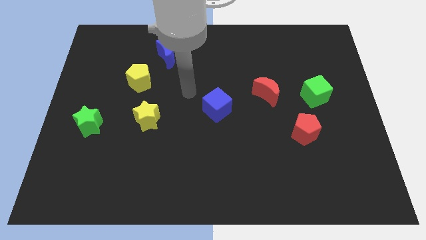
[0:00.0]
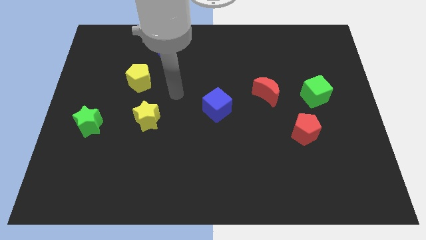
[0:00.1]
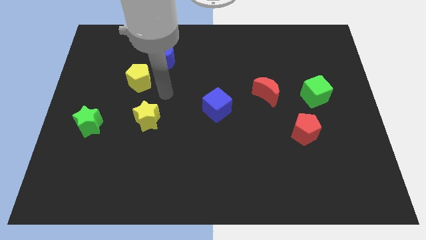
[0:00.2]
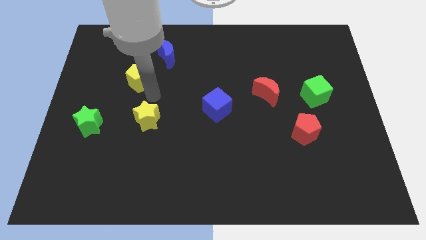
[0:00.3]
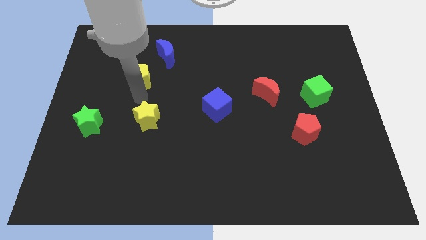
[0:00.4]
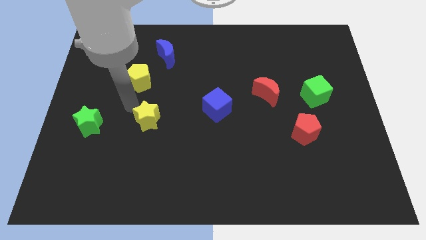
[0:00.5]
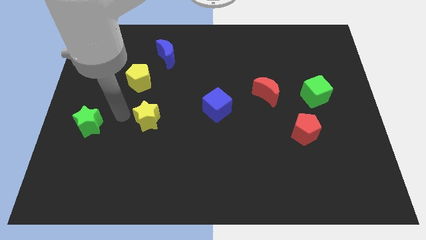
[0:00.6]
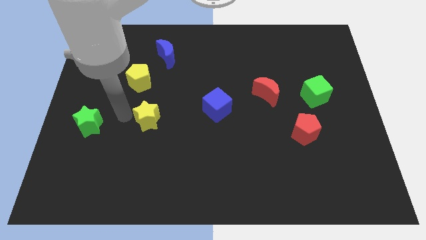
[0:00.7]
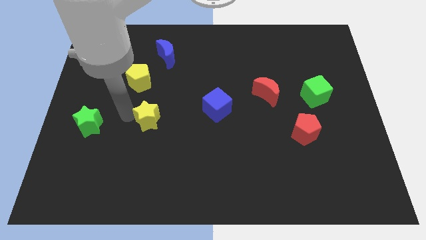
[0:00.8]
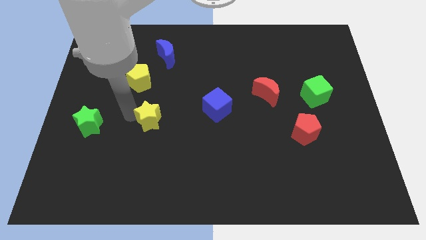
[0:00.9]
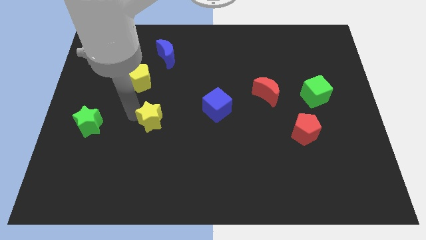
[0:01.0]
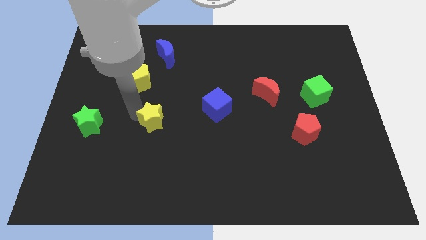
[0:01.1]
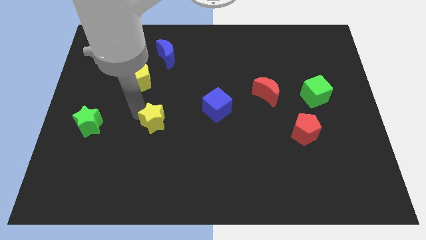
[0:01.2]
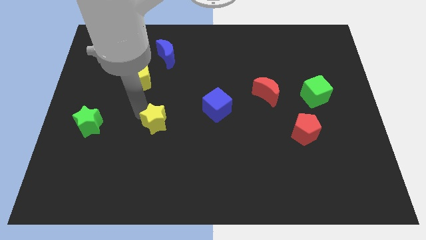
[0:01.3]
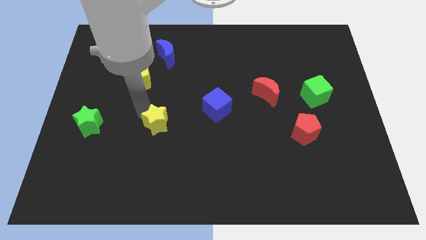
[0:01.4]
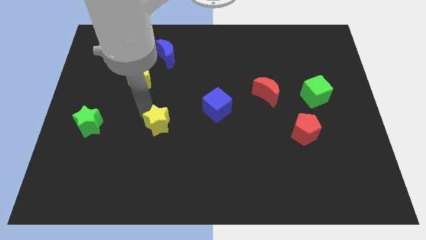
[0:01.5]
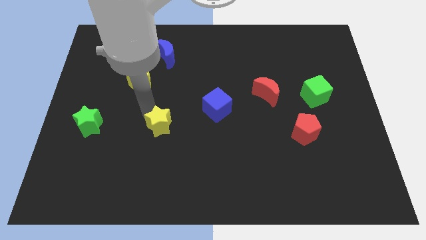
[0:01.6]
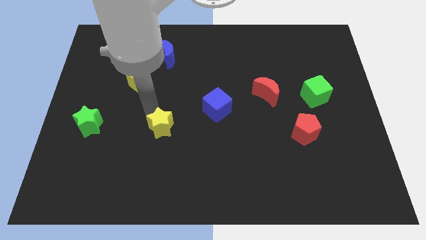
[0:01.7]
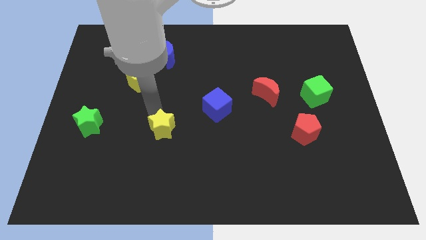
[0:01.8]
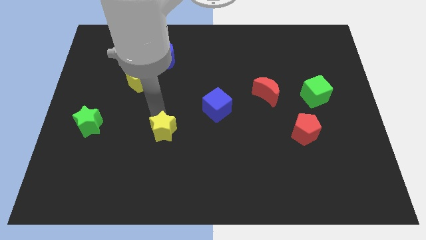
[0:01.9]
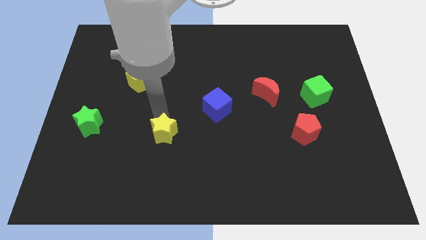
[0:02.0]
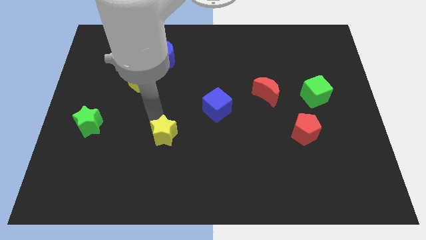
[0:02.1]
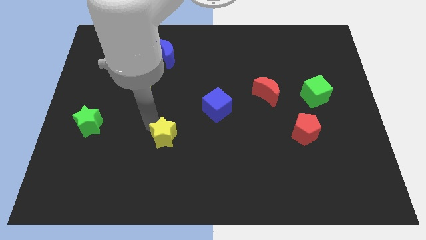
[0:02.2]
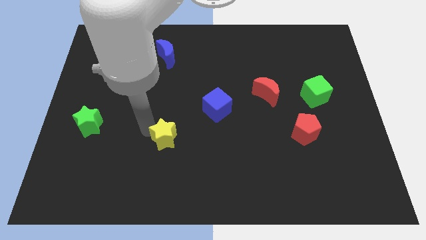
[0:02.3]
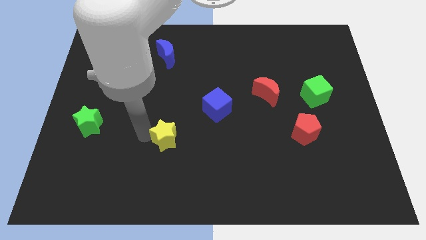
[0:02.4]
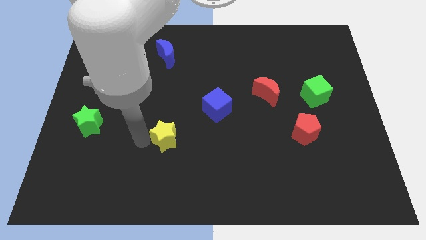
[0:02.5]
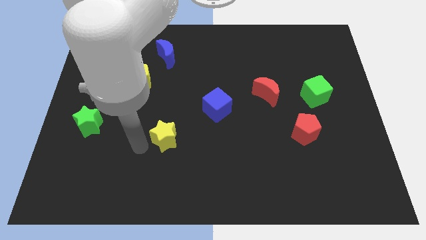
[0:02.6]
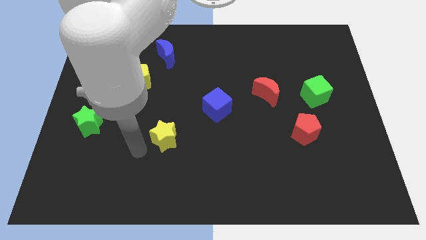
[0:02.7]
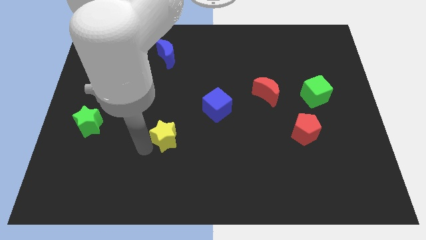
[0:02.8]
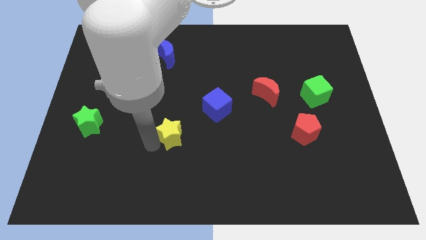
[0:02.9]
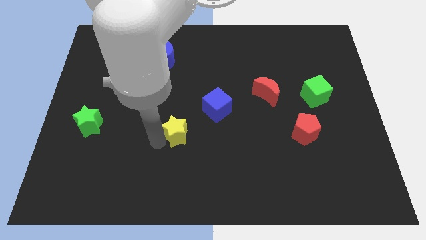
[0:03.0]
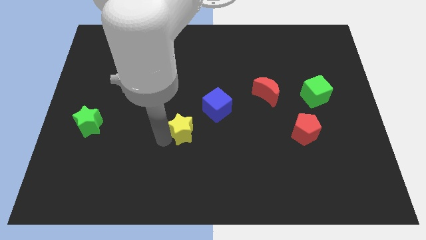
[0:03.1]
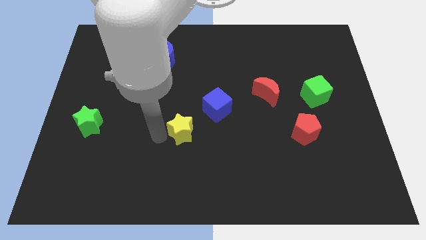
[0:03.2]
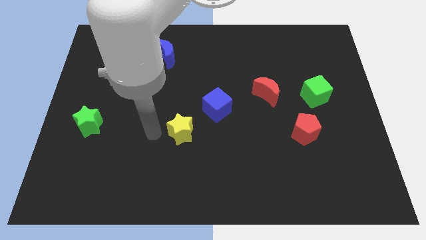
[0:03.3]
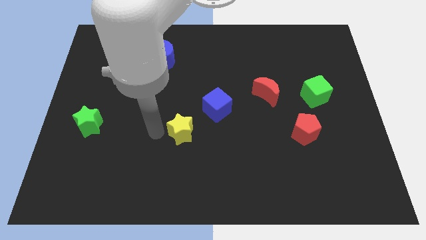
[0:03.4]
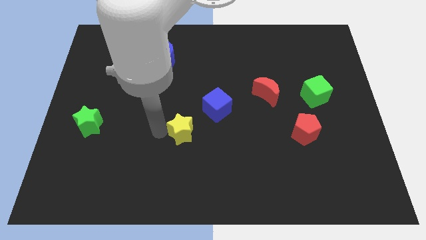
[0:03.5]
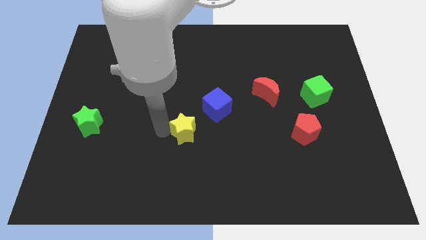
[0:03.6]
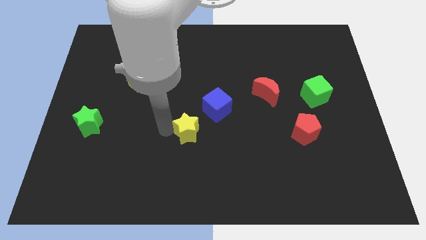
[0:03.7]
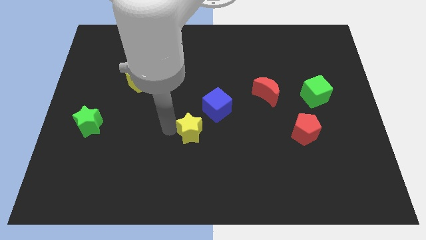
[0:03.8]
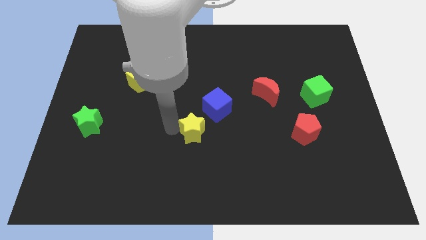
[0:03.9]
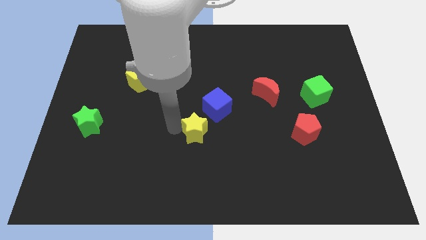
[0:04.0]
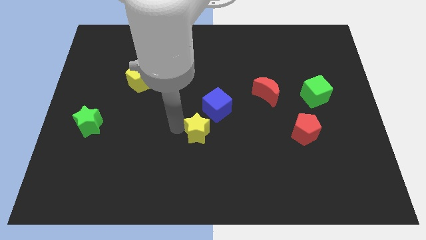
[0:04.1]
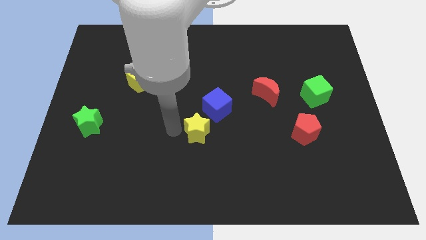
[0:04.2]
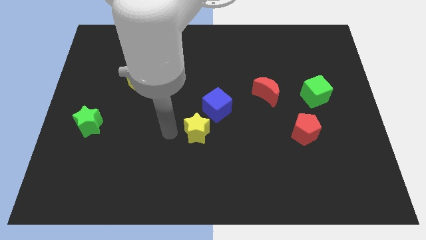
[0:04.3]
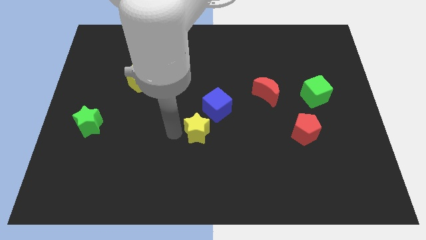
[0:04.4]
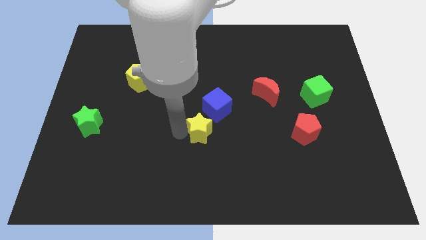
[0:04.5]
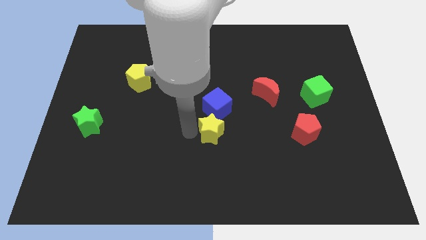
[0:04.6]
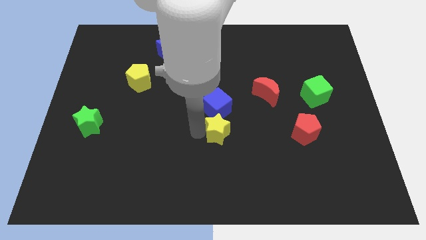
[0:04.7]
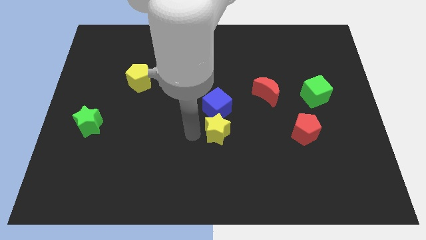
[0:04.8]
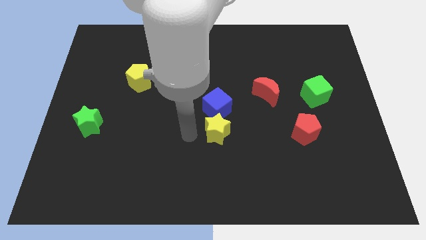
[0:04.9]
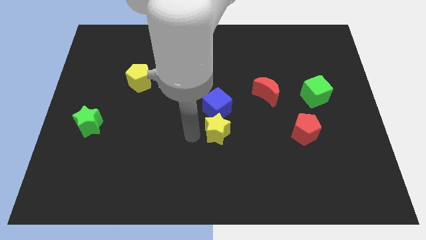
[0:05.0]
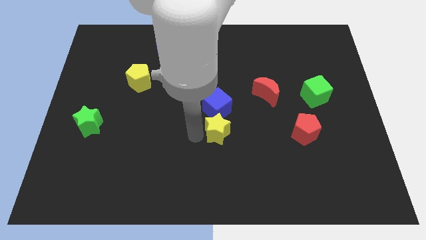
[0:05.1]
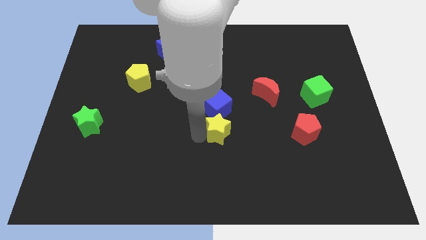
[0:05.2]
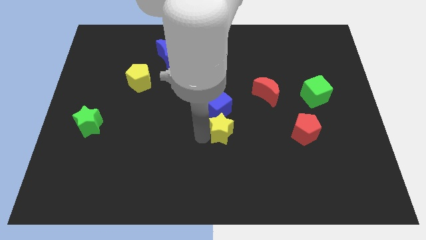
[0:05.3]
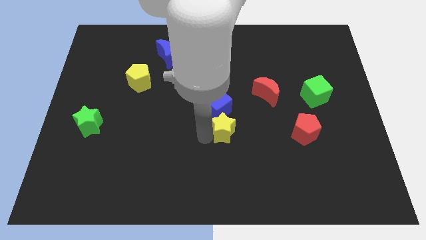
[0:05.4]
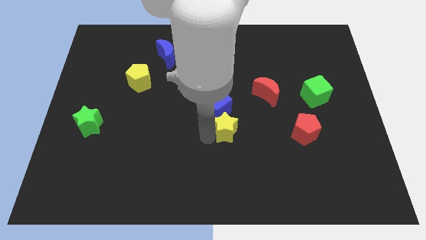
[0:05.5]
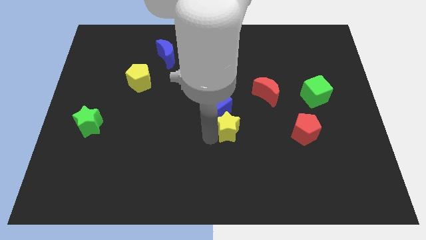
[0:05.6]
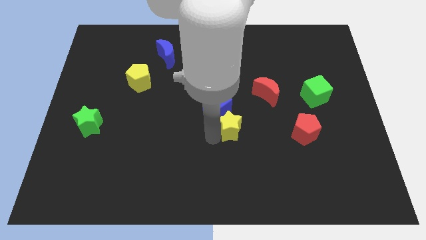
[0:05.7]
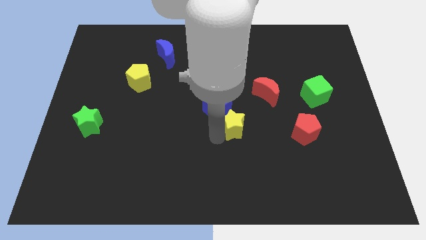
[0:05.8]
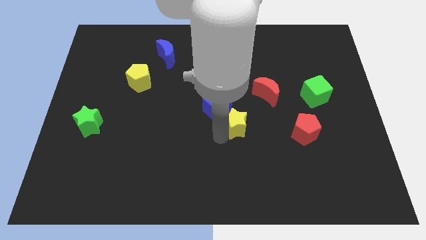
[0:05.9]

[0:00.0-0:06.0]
push the yellow star right

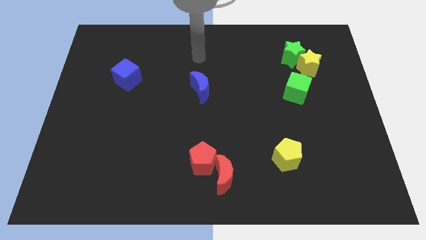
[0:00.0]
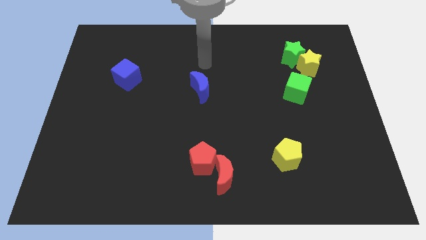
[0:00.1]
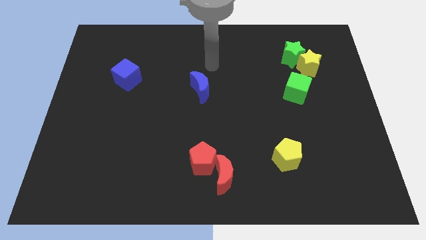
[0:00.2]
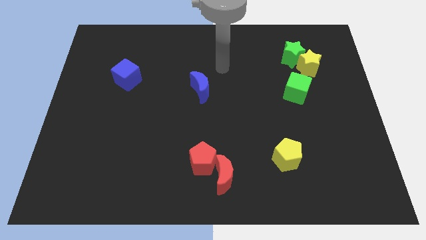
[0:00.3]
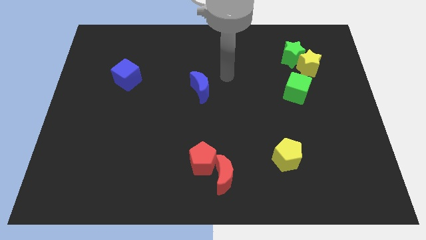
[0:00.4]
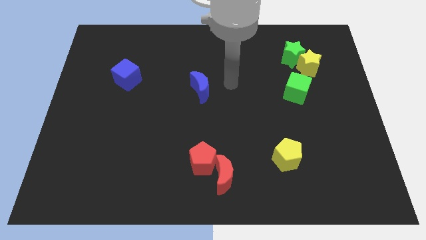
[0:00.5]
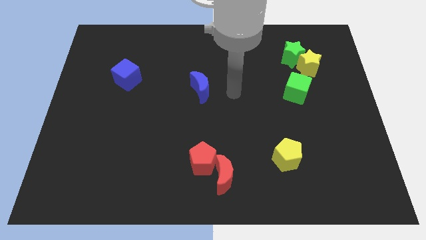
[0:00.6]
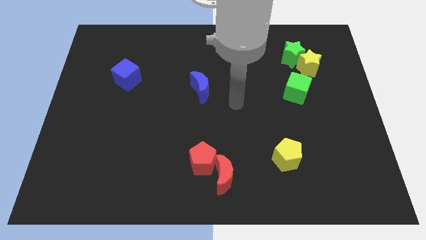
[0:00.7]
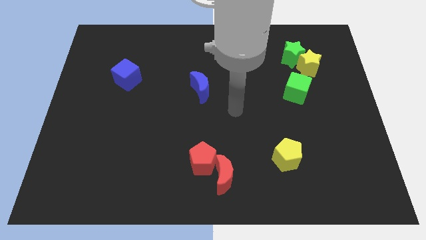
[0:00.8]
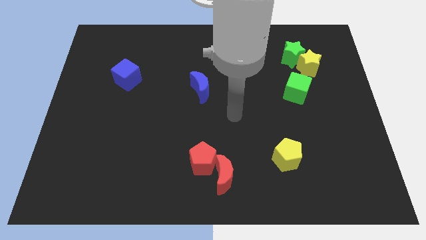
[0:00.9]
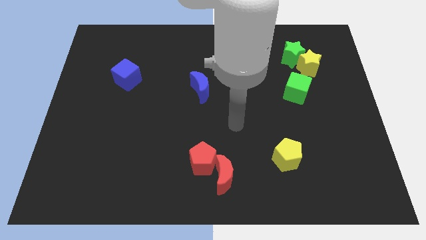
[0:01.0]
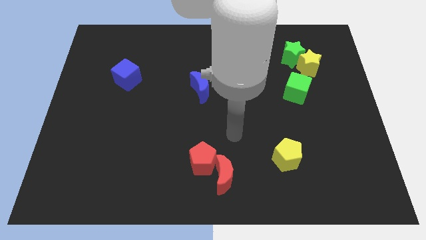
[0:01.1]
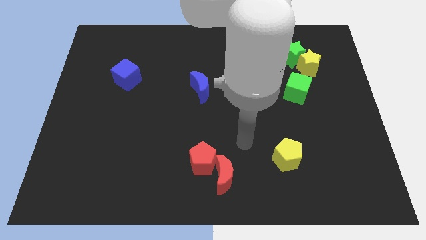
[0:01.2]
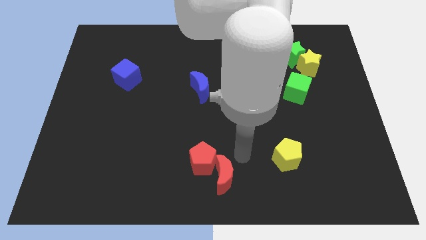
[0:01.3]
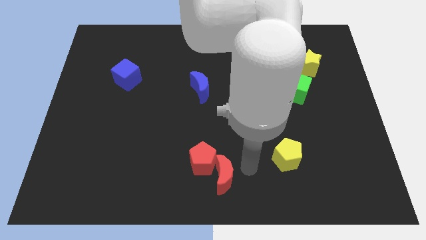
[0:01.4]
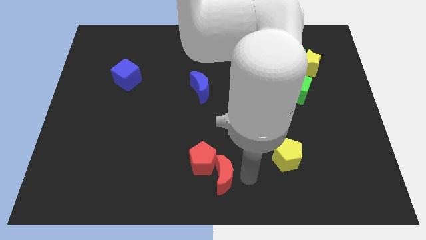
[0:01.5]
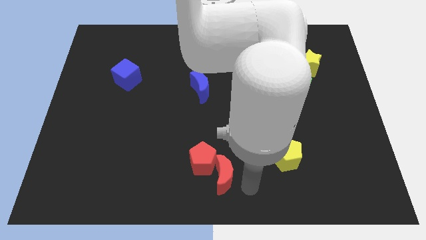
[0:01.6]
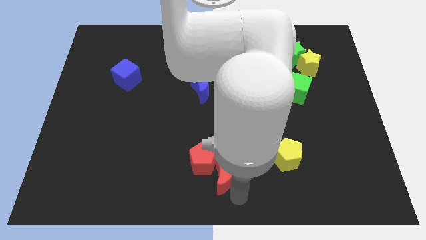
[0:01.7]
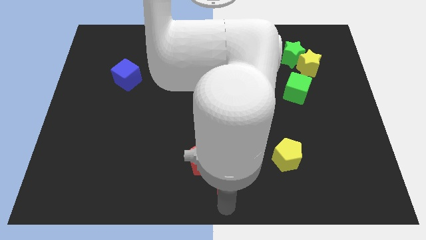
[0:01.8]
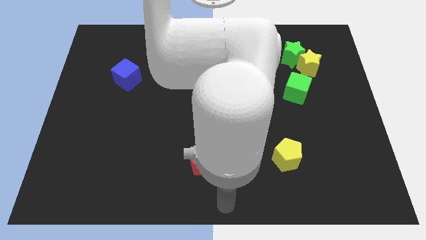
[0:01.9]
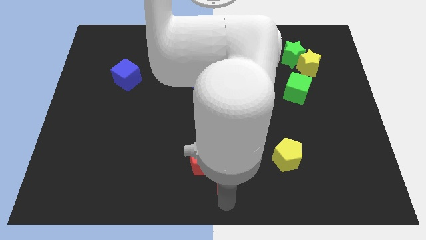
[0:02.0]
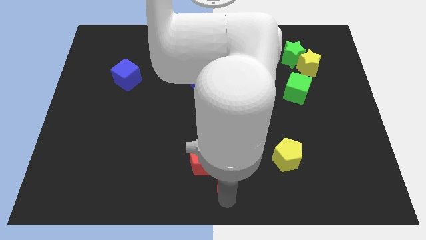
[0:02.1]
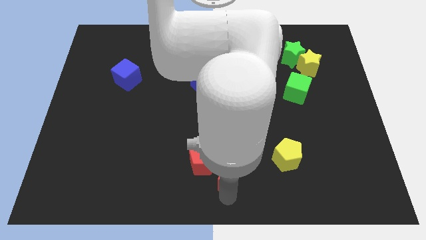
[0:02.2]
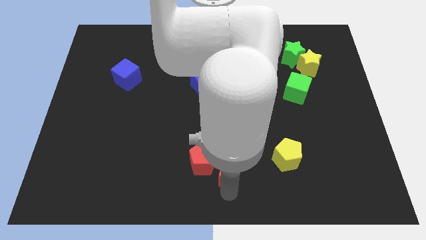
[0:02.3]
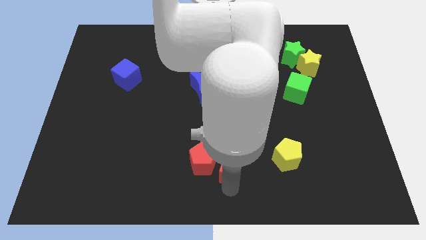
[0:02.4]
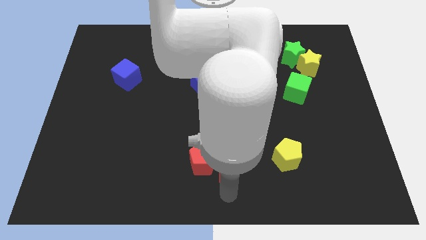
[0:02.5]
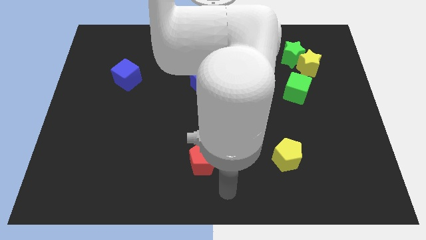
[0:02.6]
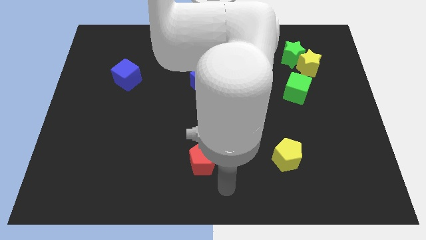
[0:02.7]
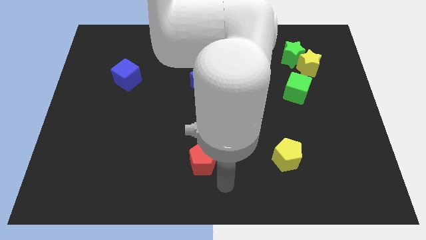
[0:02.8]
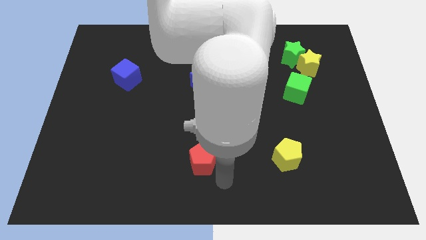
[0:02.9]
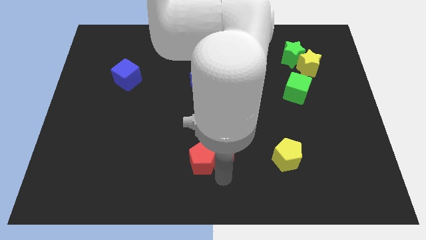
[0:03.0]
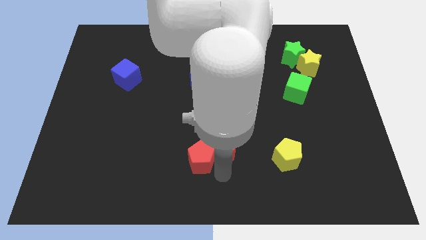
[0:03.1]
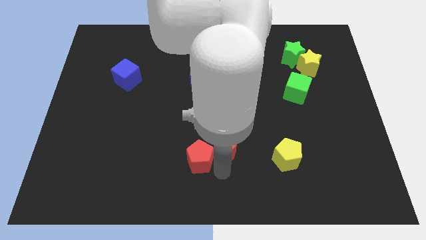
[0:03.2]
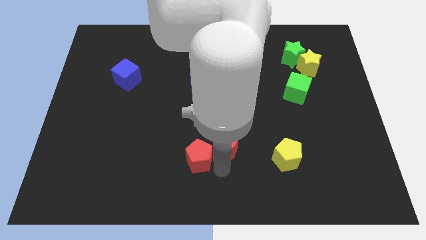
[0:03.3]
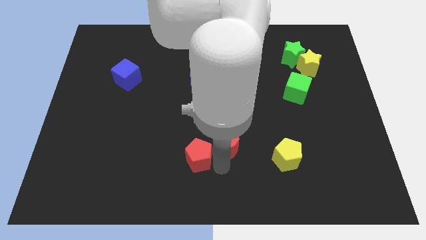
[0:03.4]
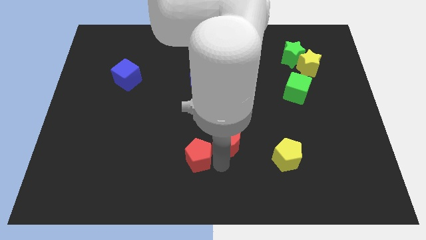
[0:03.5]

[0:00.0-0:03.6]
push the red moon a little bit upwards
